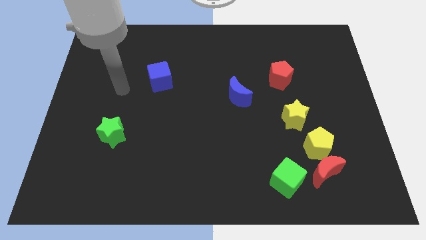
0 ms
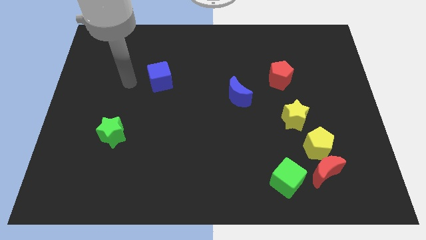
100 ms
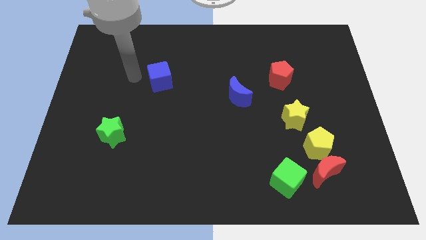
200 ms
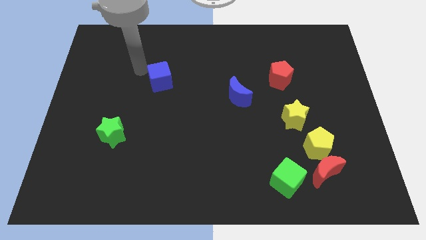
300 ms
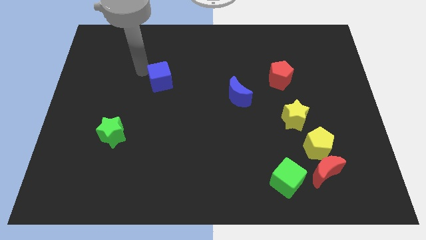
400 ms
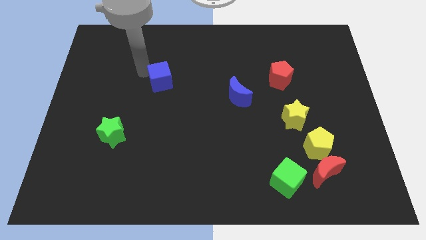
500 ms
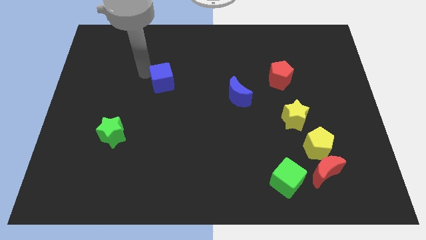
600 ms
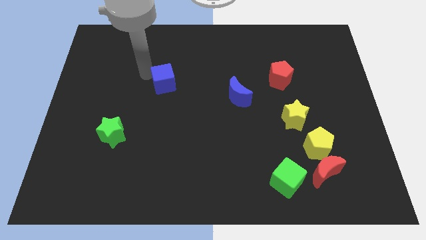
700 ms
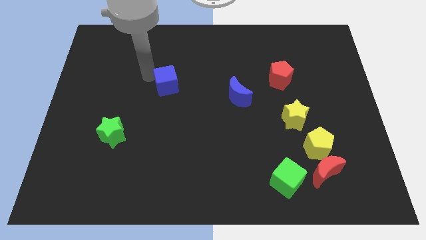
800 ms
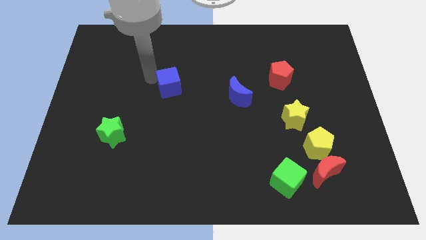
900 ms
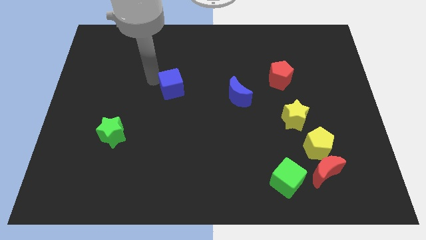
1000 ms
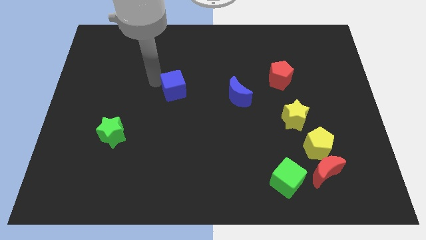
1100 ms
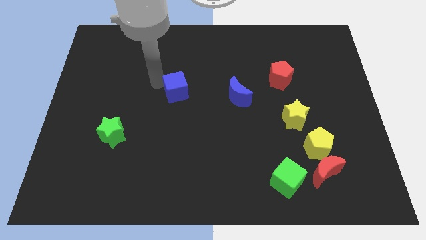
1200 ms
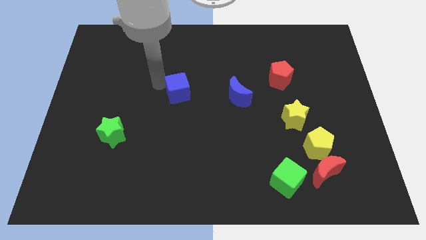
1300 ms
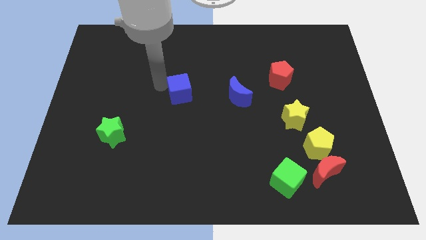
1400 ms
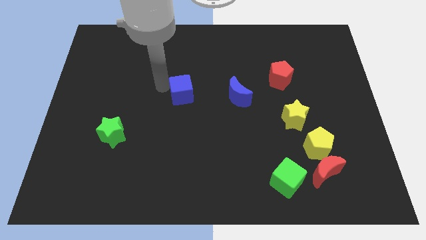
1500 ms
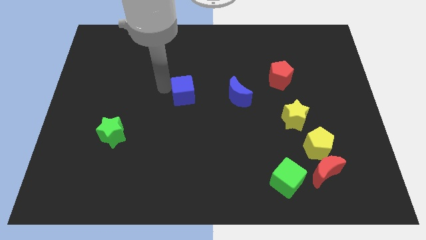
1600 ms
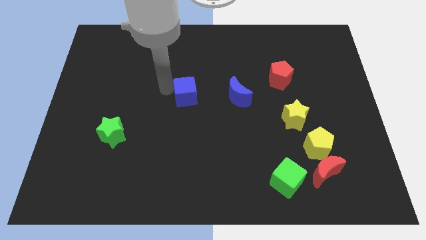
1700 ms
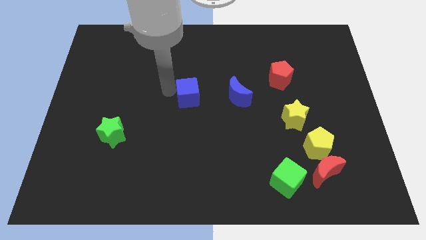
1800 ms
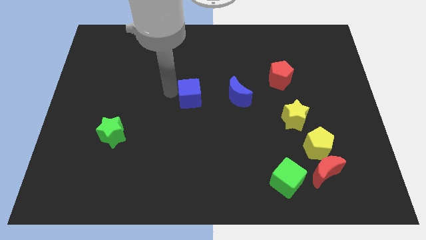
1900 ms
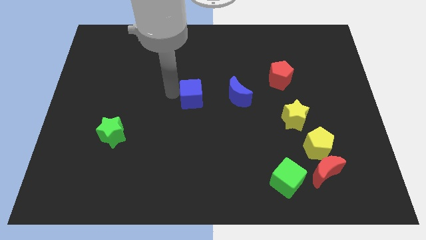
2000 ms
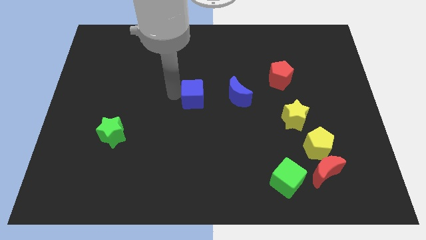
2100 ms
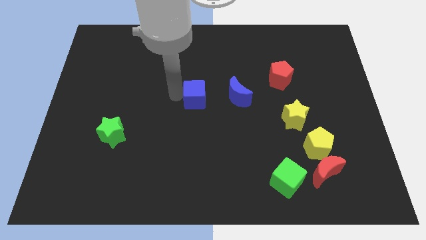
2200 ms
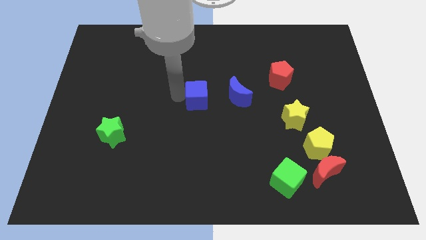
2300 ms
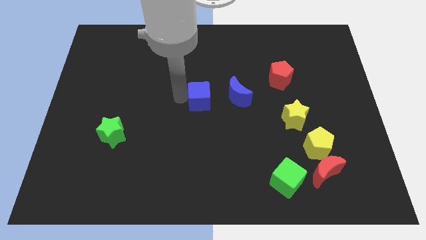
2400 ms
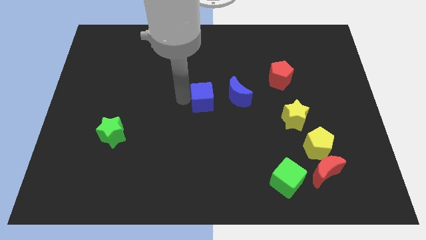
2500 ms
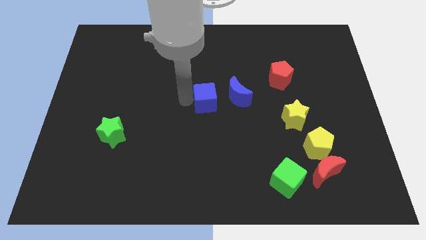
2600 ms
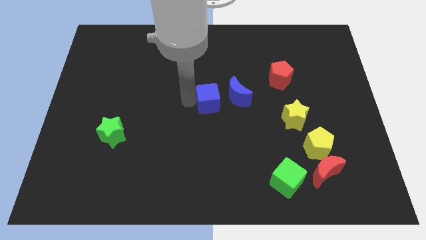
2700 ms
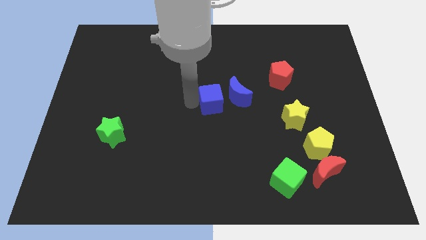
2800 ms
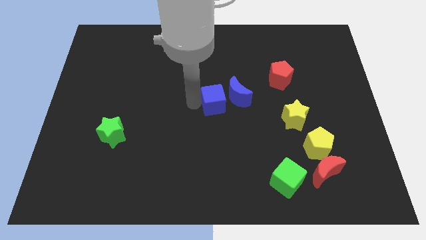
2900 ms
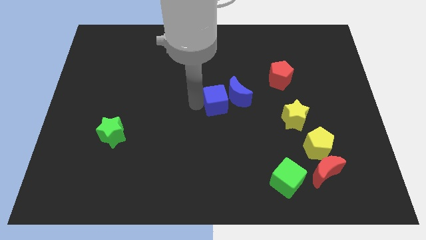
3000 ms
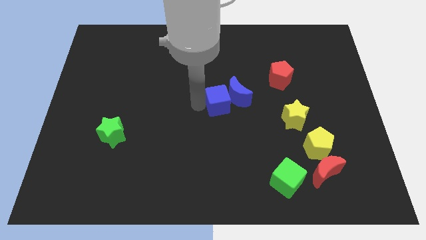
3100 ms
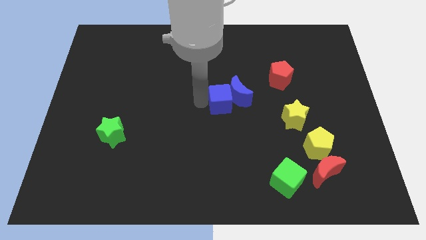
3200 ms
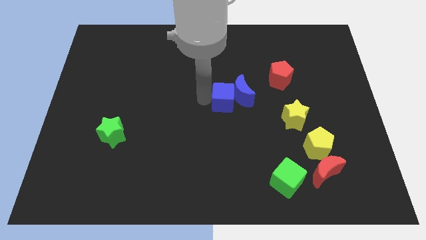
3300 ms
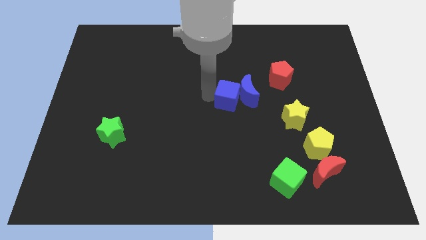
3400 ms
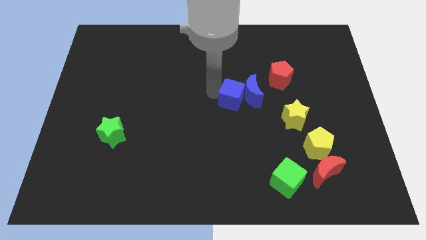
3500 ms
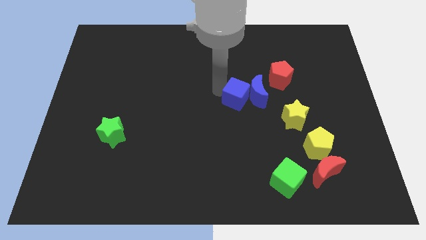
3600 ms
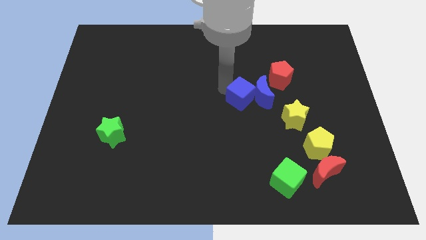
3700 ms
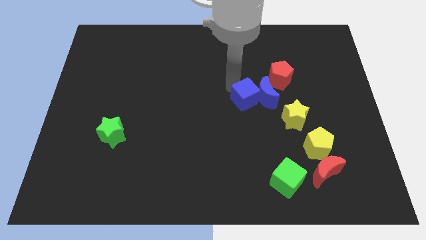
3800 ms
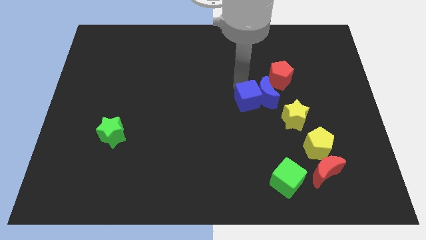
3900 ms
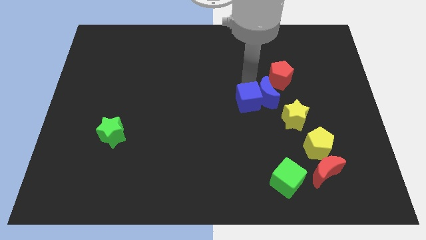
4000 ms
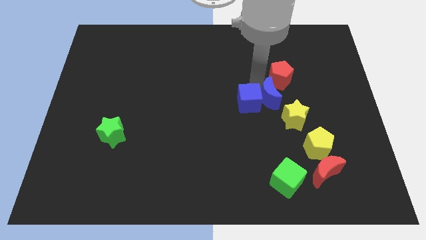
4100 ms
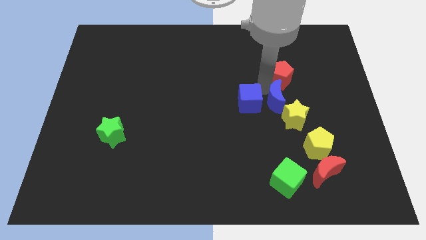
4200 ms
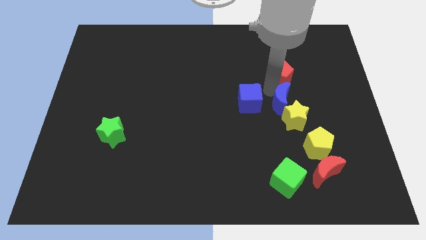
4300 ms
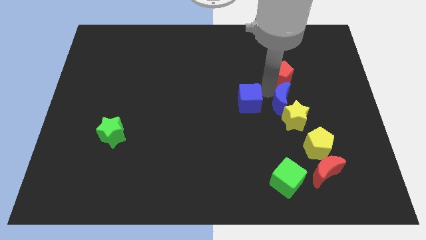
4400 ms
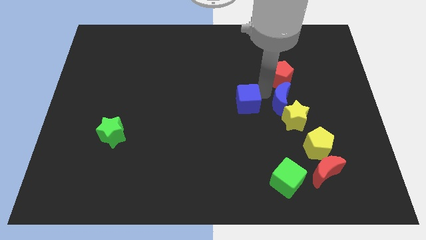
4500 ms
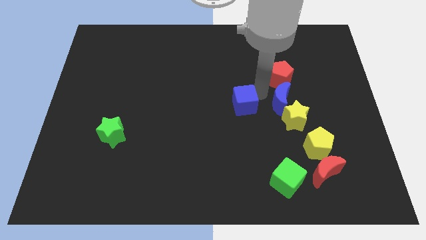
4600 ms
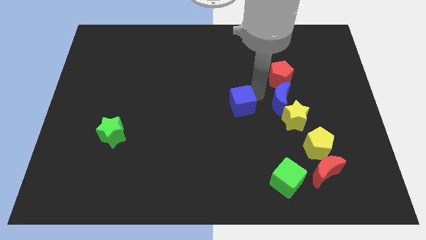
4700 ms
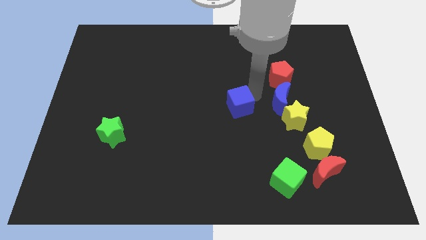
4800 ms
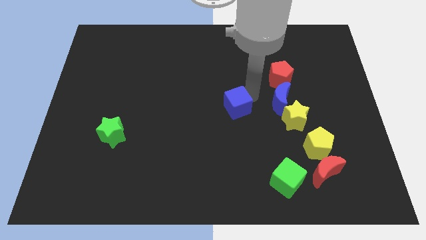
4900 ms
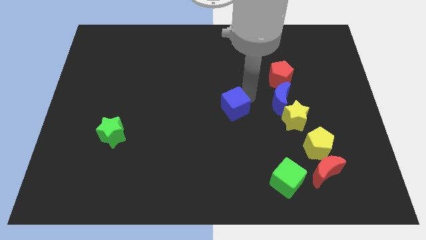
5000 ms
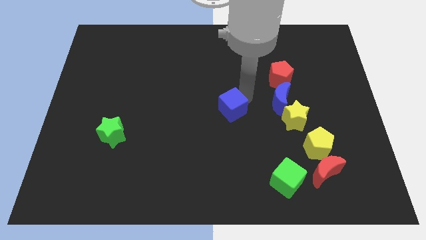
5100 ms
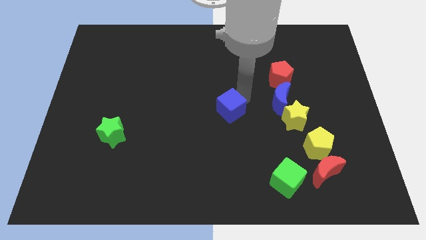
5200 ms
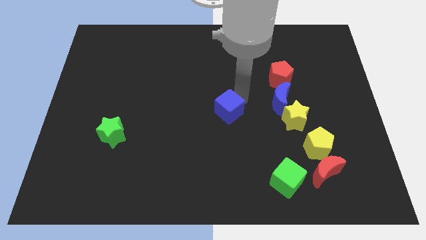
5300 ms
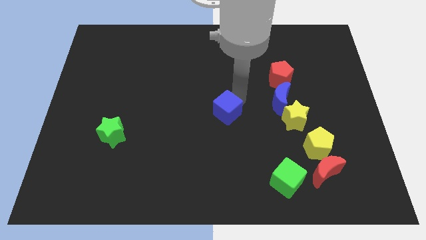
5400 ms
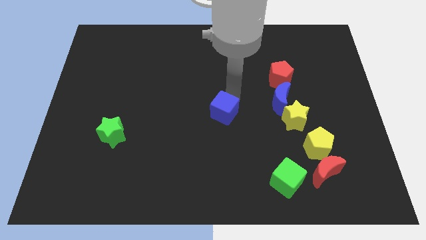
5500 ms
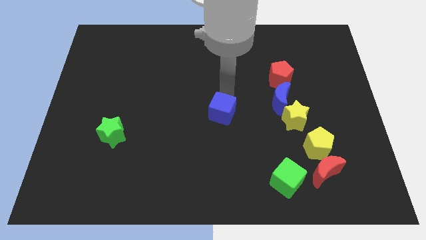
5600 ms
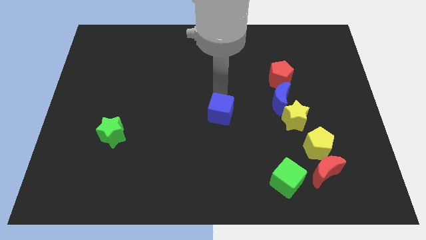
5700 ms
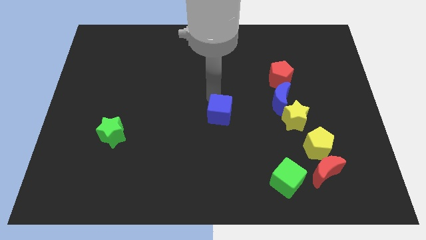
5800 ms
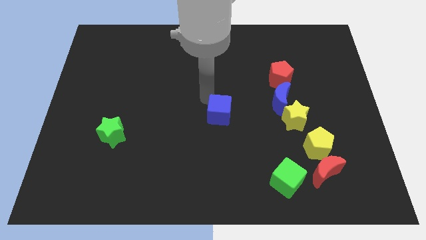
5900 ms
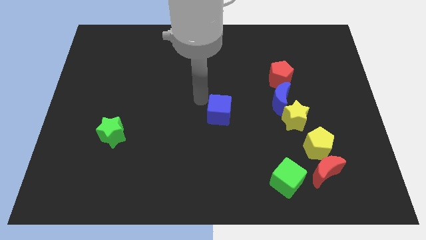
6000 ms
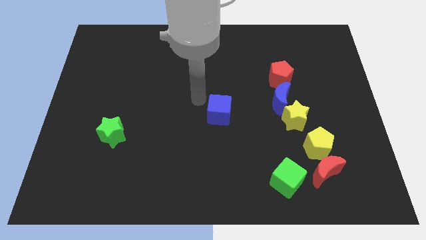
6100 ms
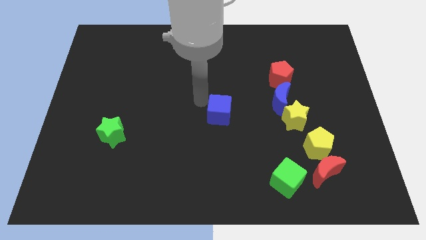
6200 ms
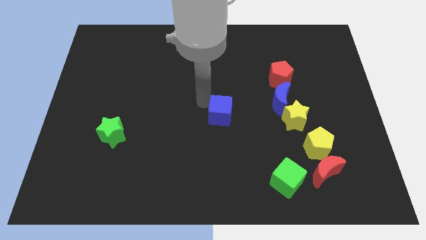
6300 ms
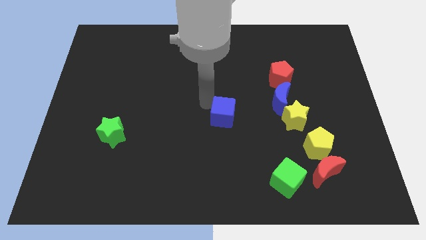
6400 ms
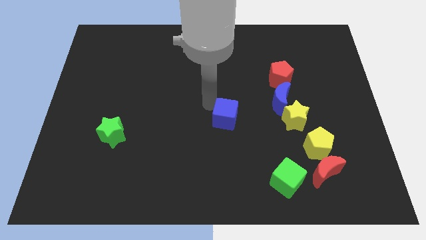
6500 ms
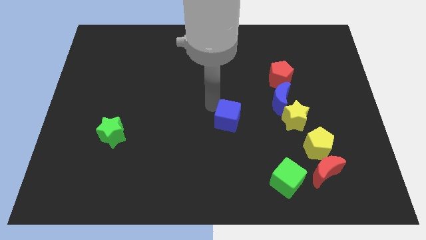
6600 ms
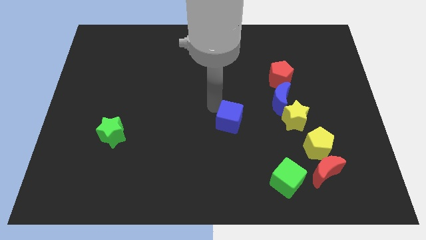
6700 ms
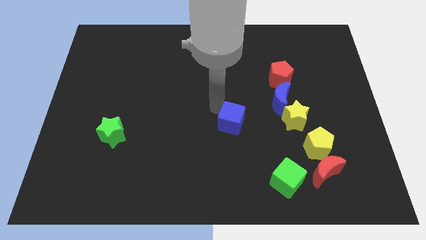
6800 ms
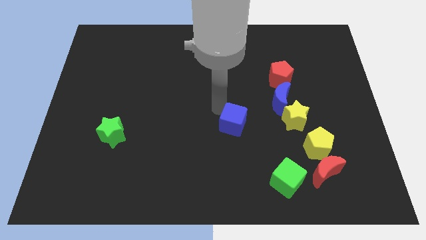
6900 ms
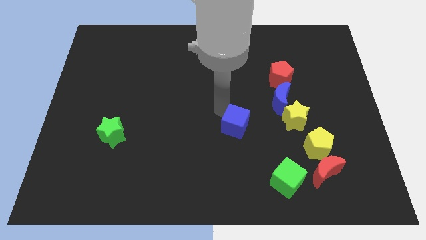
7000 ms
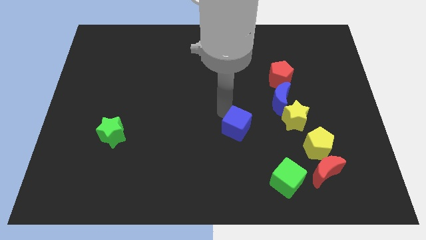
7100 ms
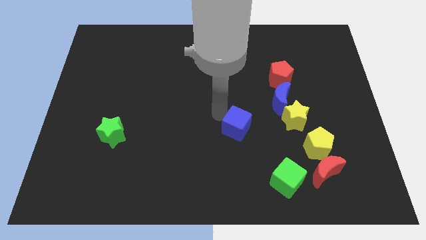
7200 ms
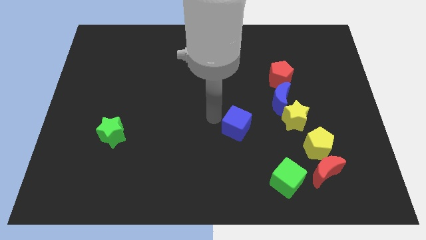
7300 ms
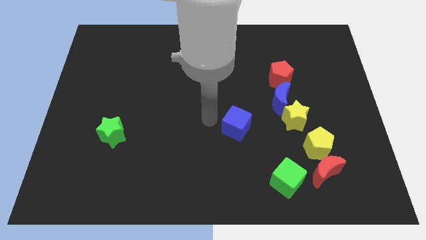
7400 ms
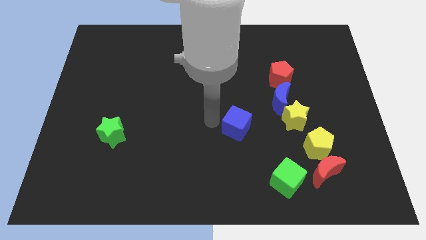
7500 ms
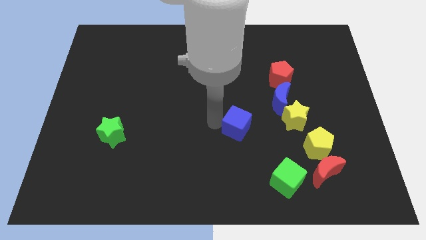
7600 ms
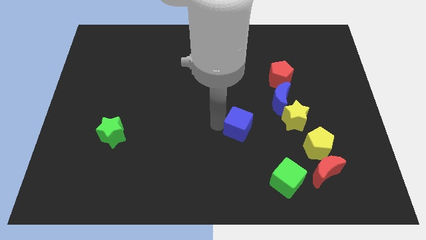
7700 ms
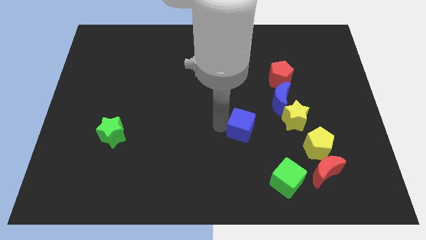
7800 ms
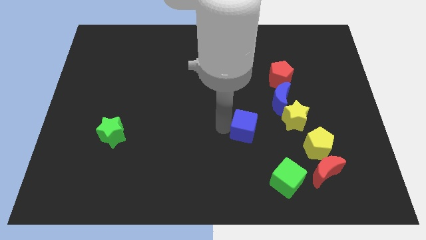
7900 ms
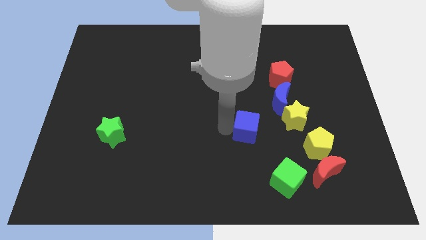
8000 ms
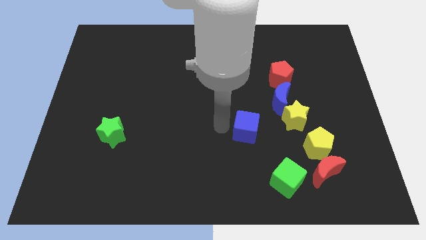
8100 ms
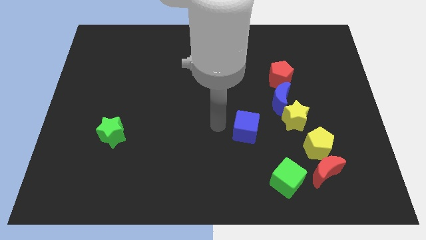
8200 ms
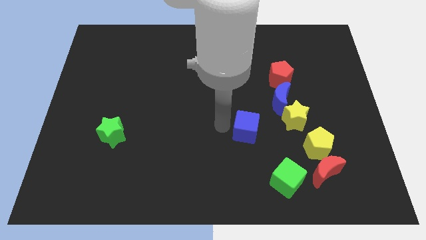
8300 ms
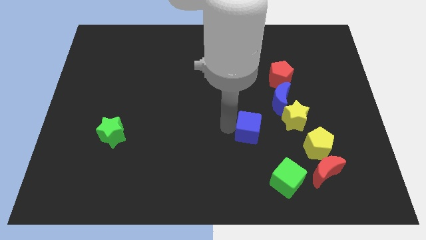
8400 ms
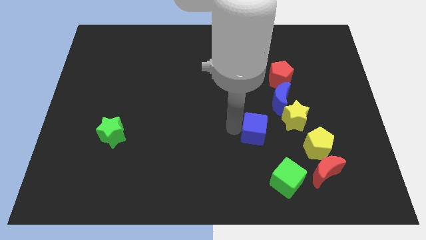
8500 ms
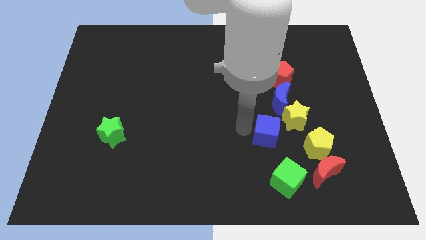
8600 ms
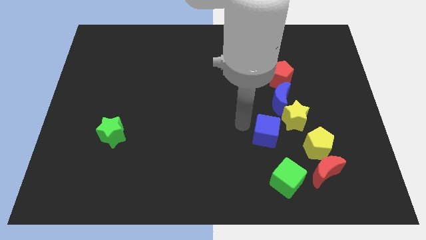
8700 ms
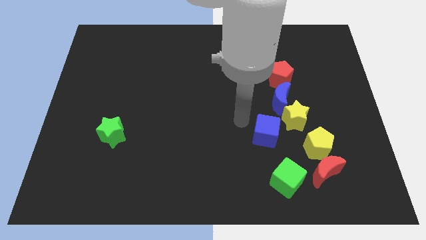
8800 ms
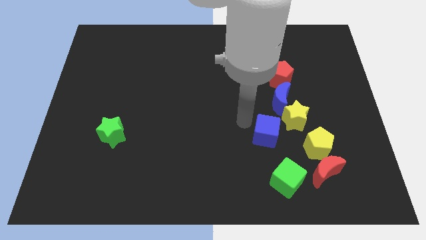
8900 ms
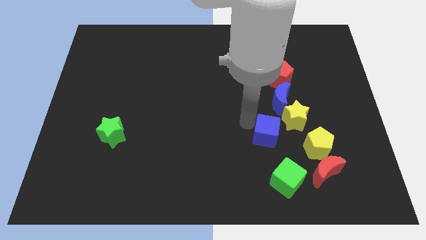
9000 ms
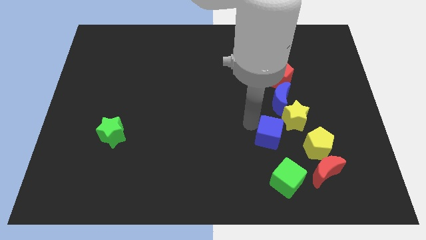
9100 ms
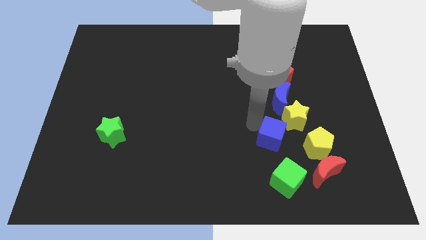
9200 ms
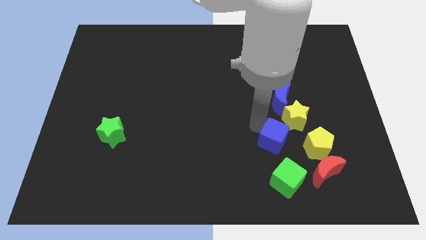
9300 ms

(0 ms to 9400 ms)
move the blue cube to the top left of the red moon
